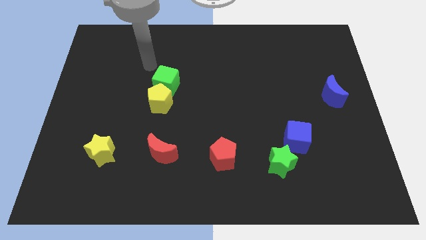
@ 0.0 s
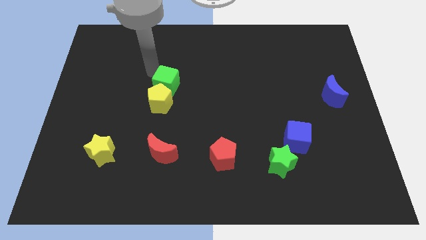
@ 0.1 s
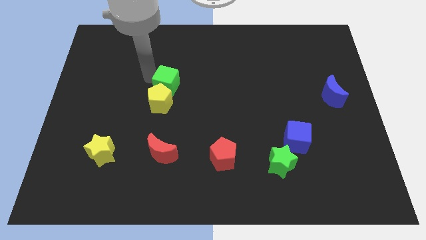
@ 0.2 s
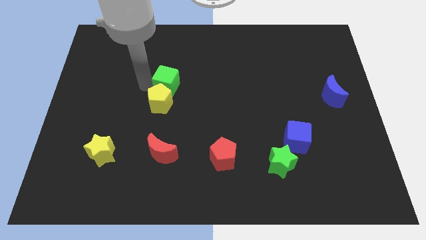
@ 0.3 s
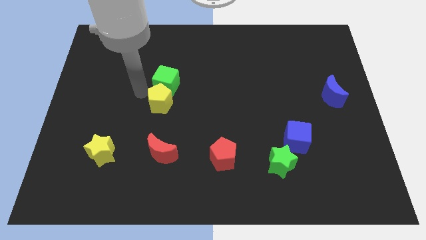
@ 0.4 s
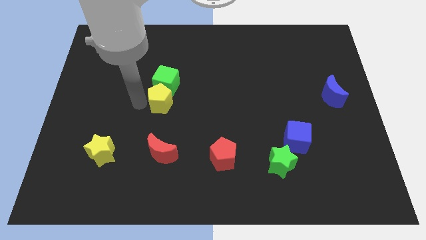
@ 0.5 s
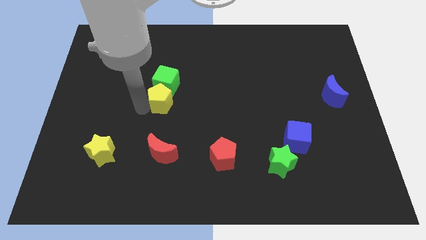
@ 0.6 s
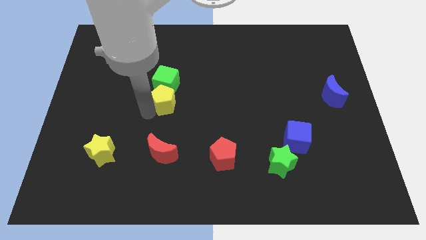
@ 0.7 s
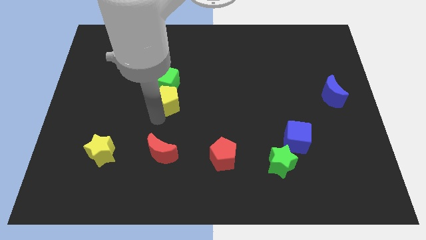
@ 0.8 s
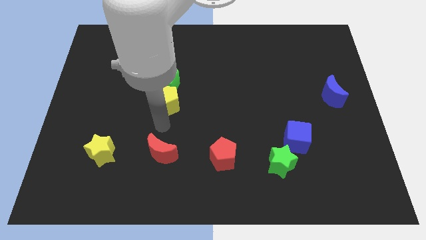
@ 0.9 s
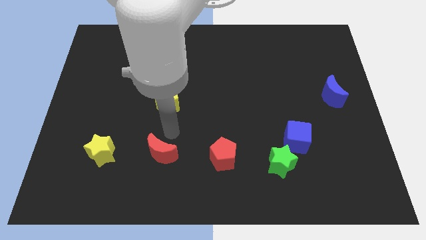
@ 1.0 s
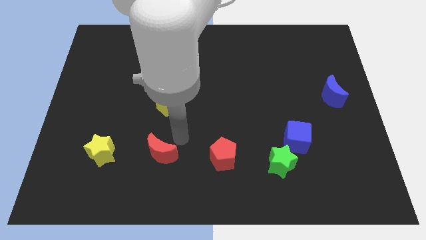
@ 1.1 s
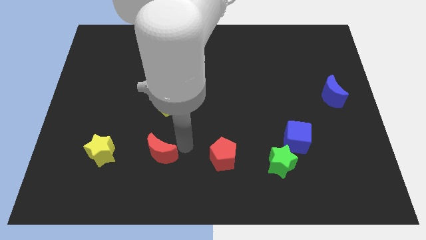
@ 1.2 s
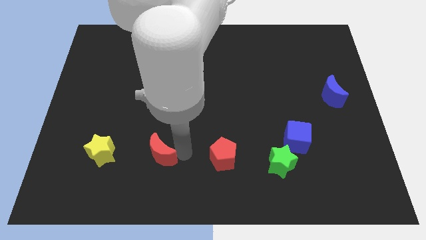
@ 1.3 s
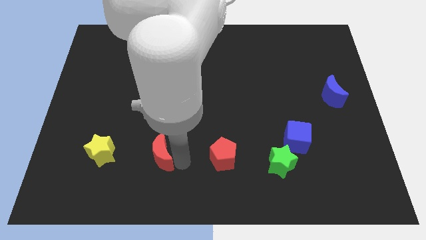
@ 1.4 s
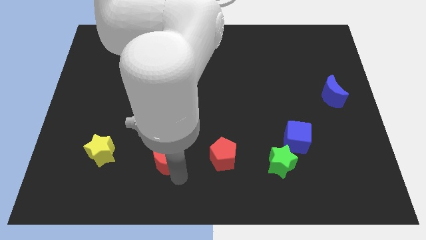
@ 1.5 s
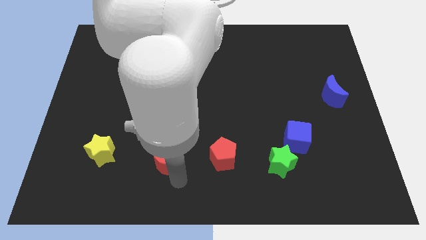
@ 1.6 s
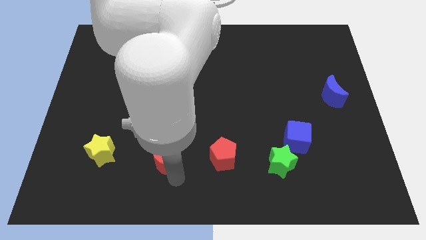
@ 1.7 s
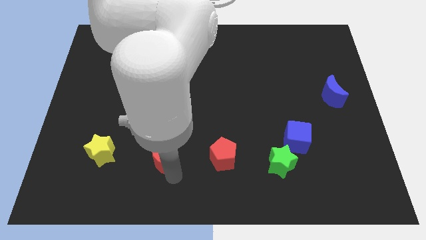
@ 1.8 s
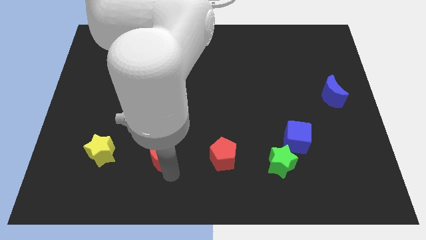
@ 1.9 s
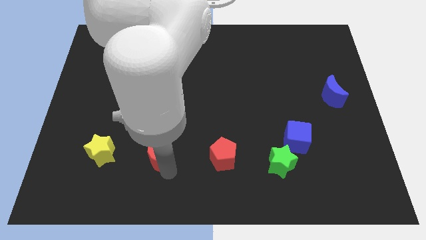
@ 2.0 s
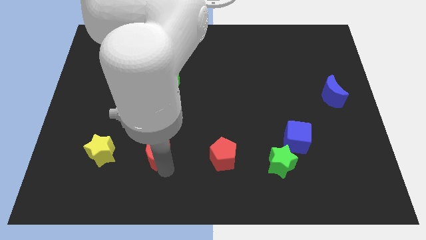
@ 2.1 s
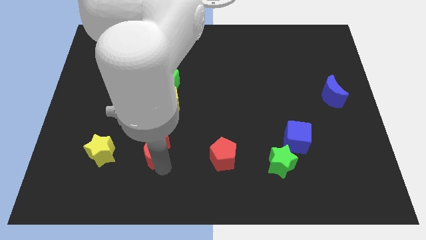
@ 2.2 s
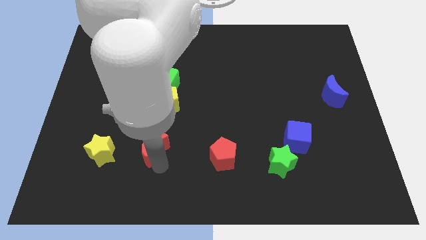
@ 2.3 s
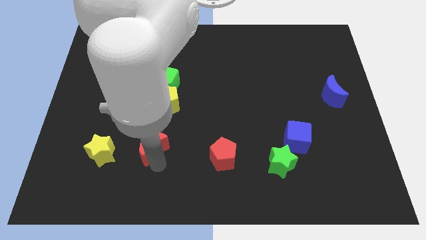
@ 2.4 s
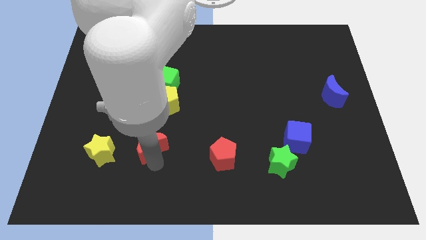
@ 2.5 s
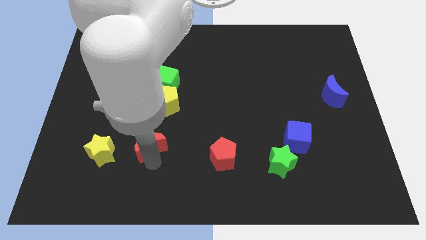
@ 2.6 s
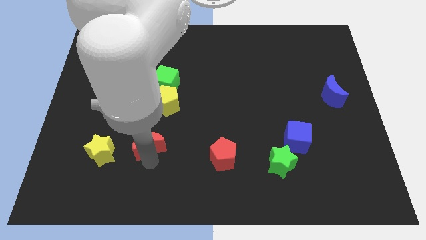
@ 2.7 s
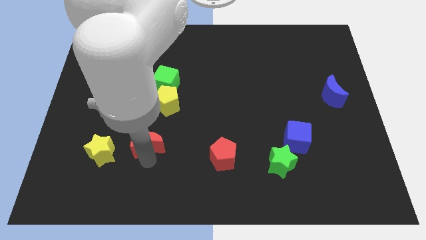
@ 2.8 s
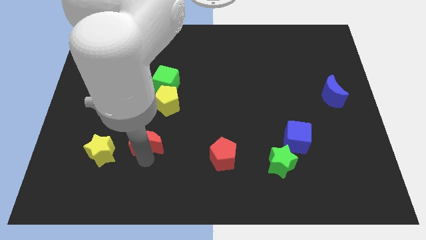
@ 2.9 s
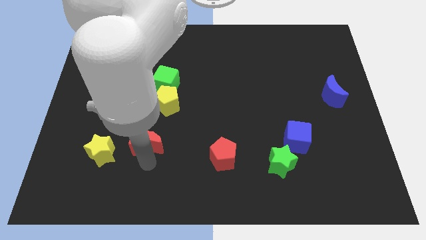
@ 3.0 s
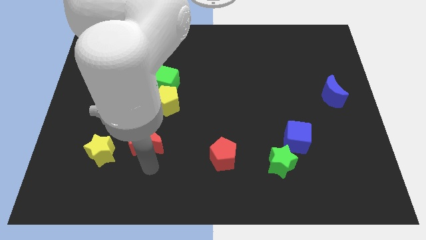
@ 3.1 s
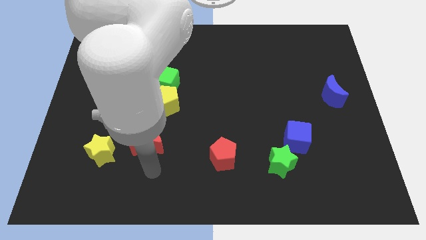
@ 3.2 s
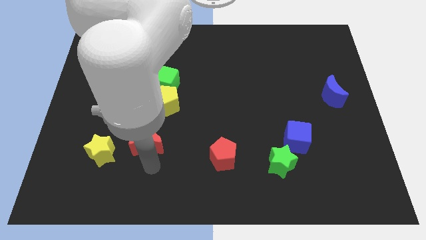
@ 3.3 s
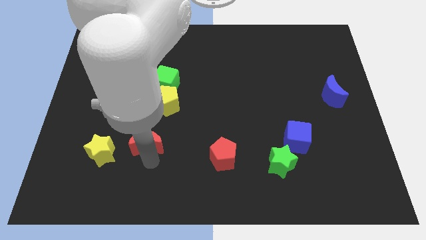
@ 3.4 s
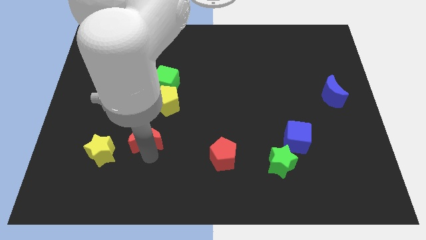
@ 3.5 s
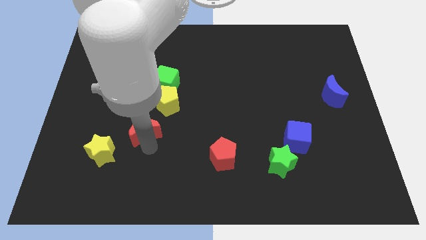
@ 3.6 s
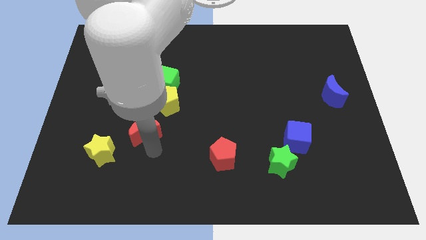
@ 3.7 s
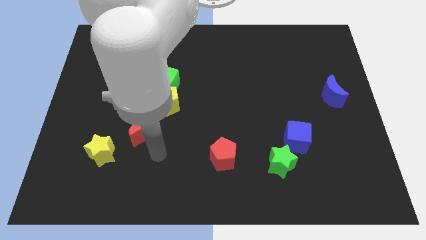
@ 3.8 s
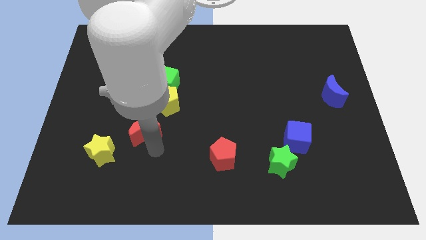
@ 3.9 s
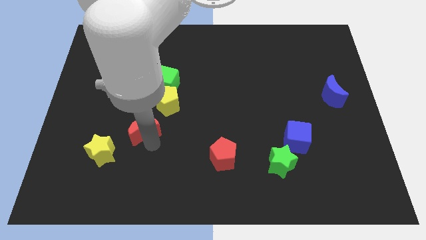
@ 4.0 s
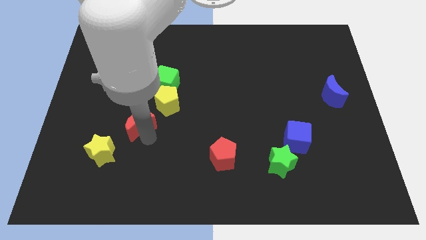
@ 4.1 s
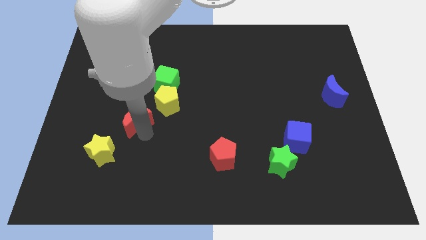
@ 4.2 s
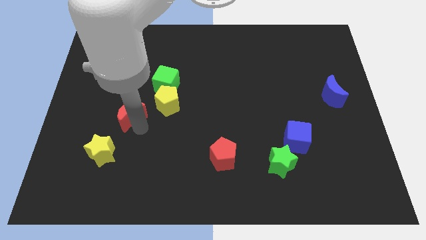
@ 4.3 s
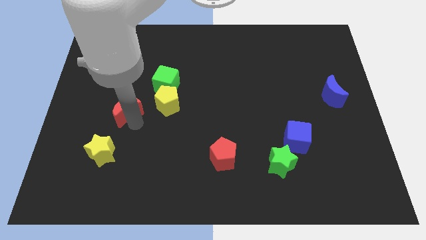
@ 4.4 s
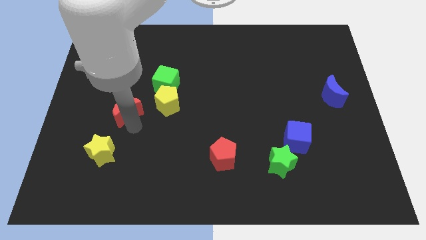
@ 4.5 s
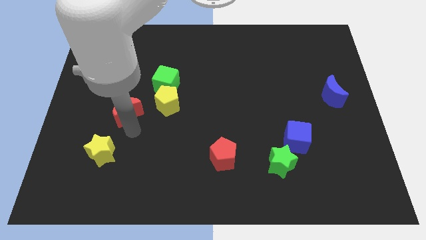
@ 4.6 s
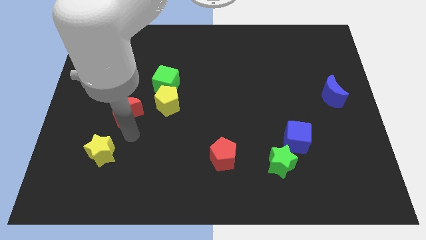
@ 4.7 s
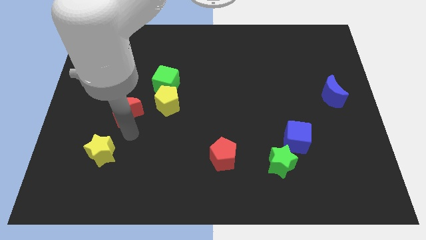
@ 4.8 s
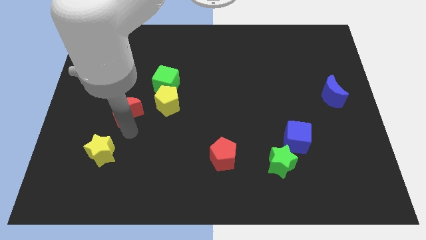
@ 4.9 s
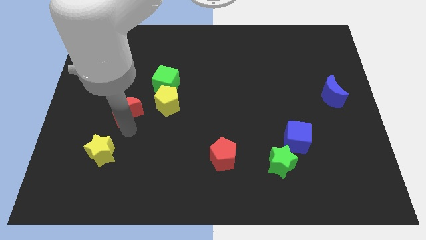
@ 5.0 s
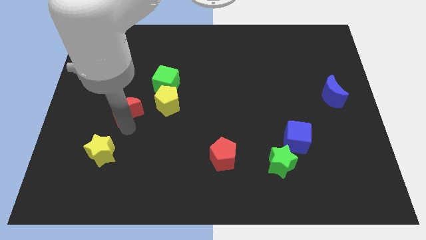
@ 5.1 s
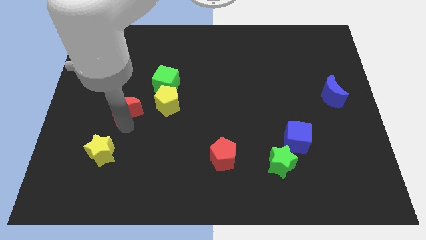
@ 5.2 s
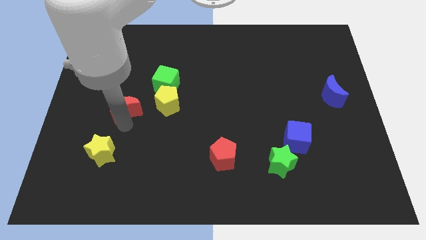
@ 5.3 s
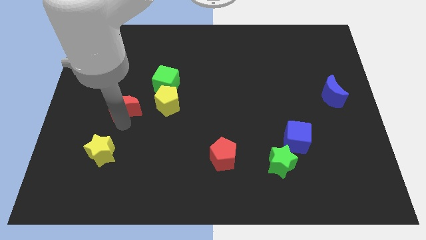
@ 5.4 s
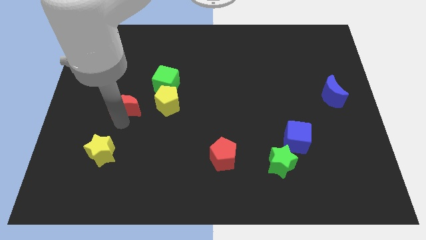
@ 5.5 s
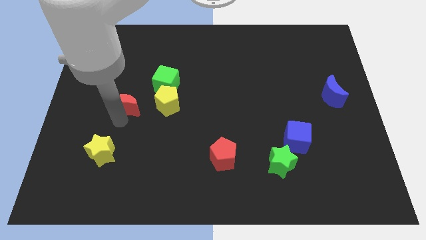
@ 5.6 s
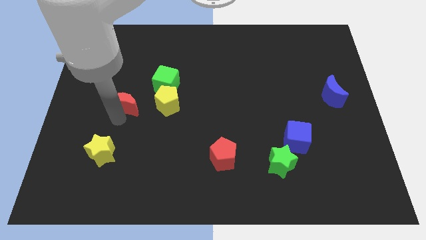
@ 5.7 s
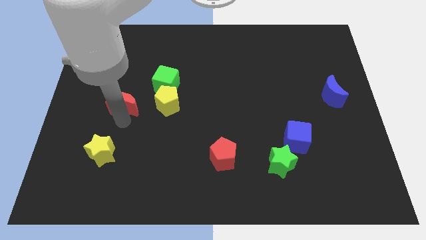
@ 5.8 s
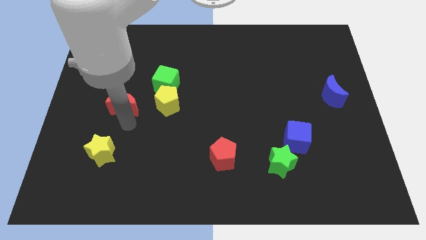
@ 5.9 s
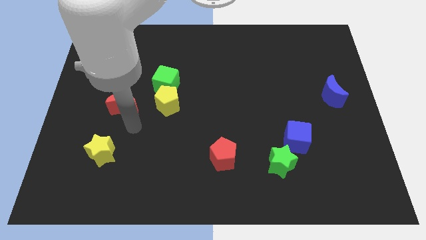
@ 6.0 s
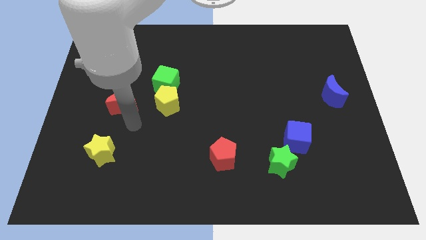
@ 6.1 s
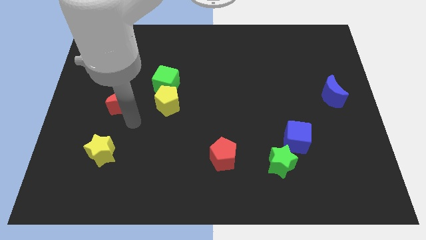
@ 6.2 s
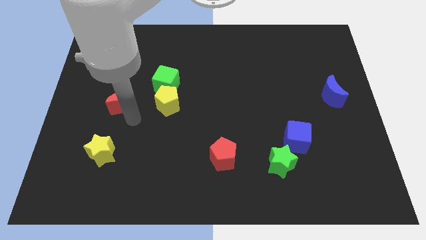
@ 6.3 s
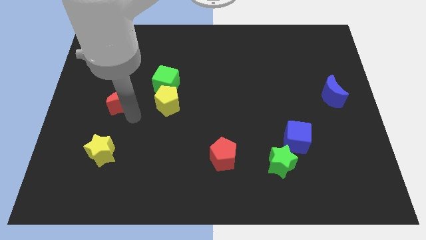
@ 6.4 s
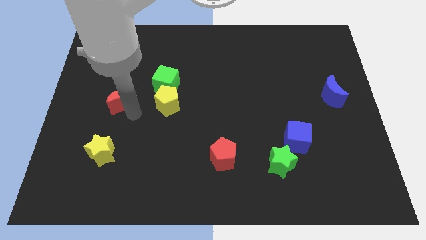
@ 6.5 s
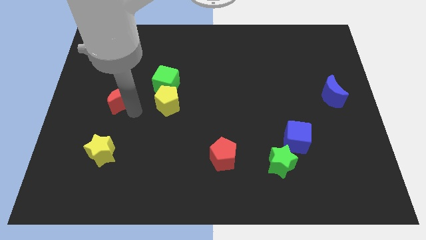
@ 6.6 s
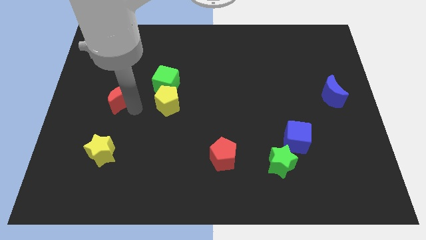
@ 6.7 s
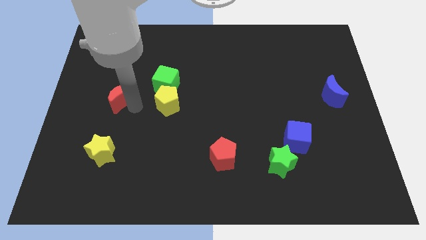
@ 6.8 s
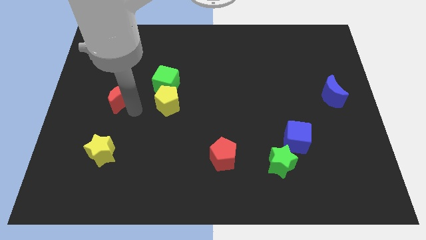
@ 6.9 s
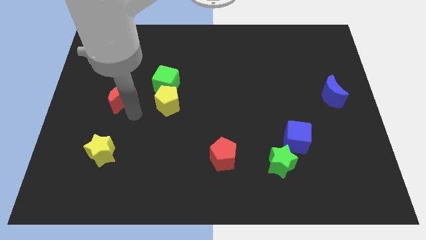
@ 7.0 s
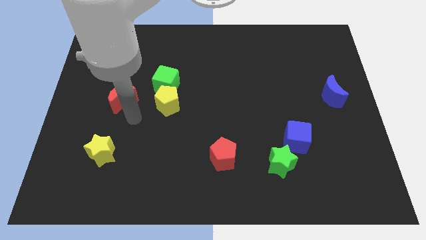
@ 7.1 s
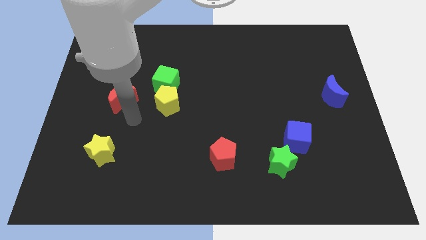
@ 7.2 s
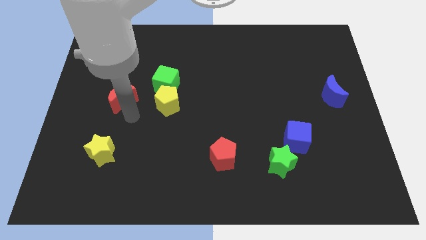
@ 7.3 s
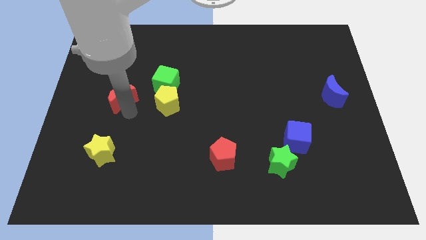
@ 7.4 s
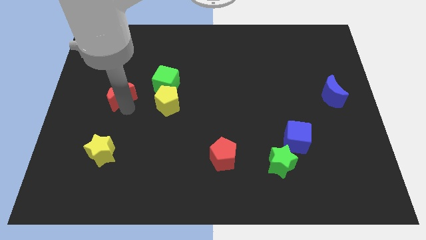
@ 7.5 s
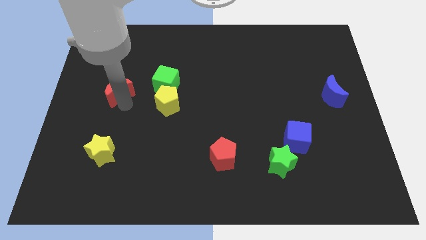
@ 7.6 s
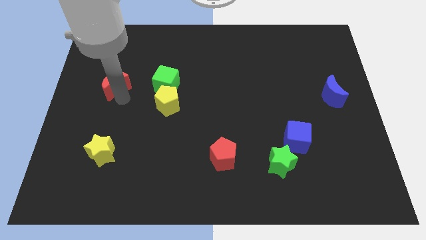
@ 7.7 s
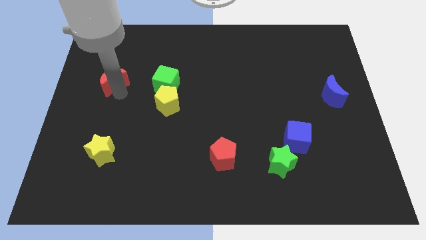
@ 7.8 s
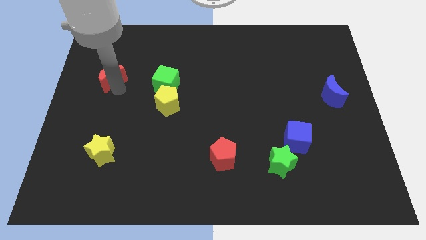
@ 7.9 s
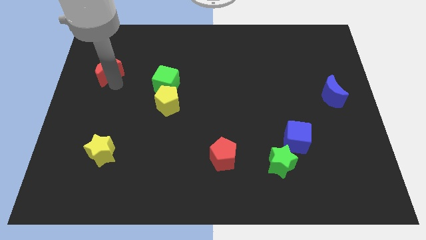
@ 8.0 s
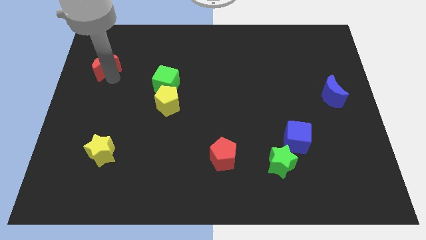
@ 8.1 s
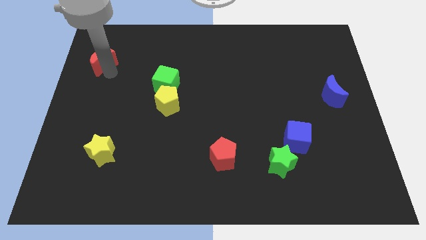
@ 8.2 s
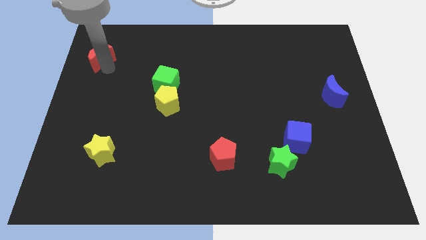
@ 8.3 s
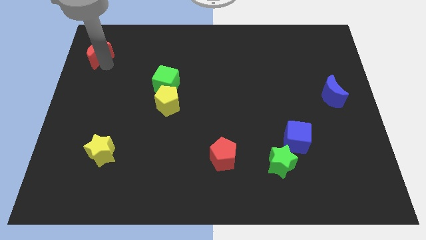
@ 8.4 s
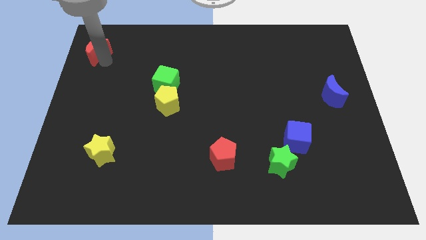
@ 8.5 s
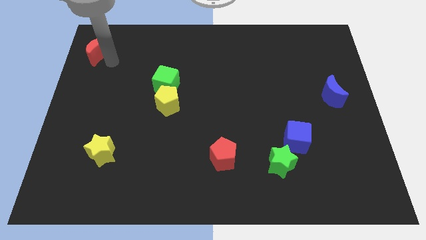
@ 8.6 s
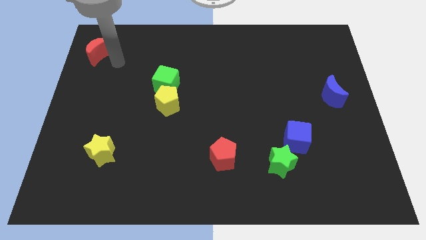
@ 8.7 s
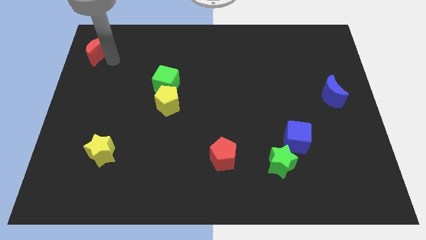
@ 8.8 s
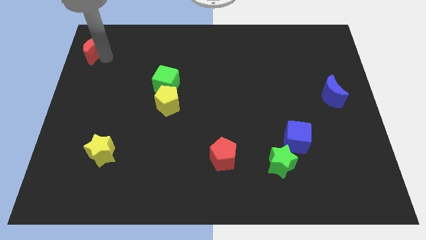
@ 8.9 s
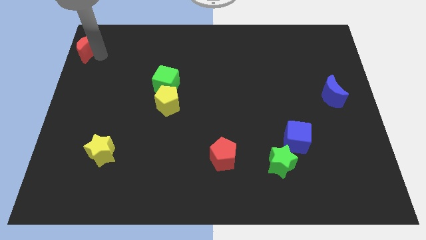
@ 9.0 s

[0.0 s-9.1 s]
move the red moon to the top left of the board
